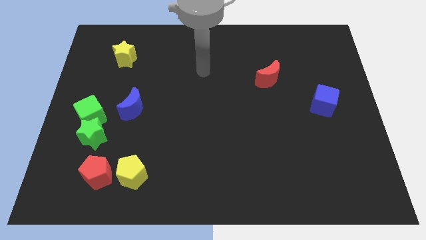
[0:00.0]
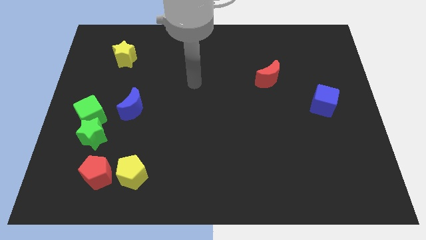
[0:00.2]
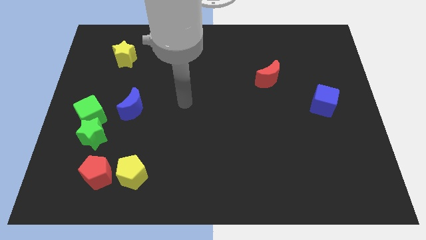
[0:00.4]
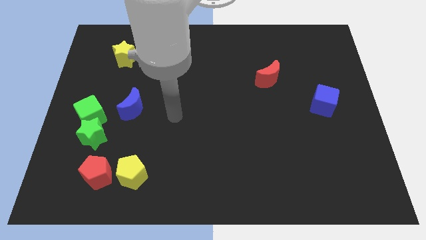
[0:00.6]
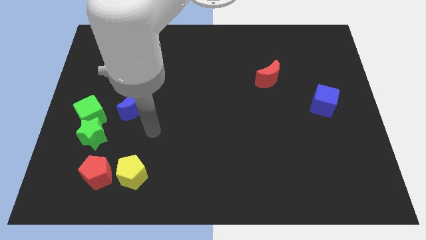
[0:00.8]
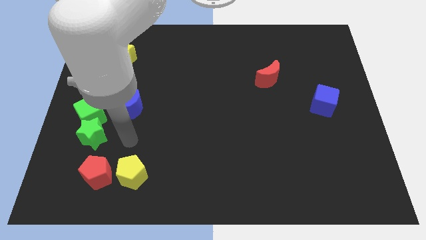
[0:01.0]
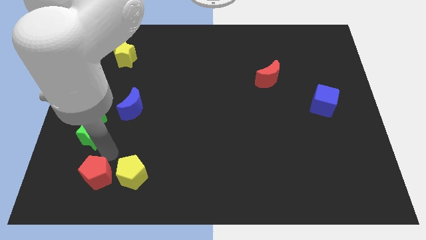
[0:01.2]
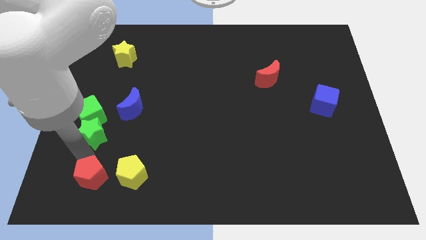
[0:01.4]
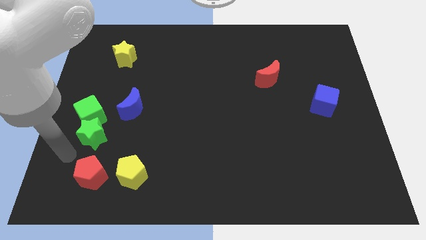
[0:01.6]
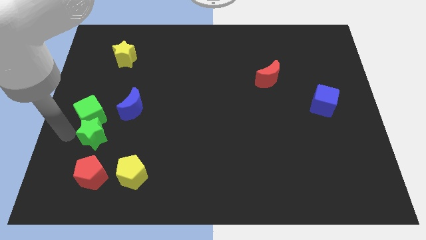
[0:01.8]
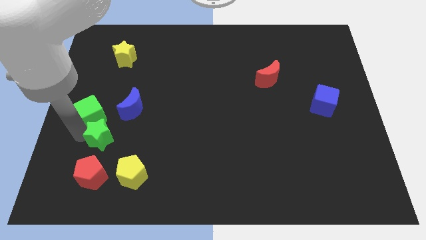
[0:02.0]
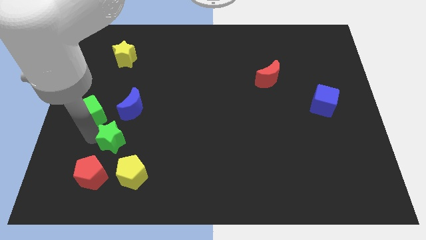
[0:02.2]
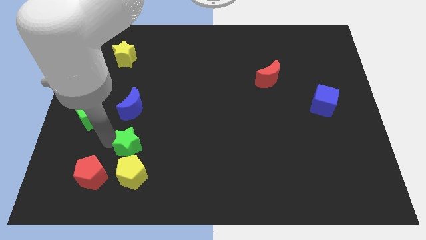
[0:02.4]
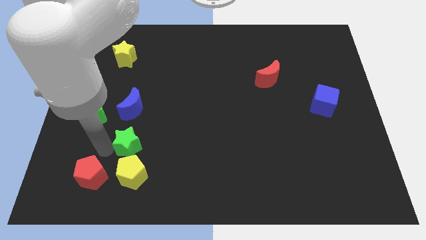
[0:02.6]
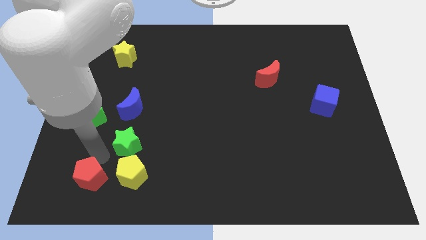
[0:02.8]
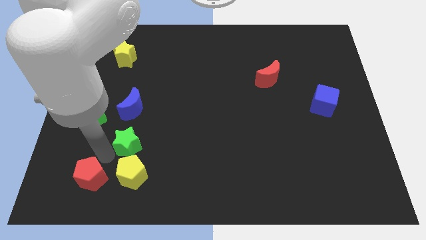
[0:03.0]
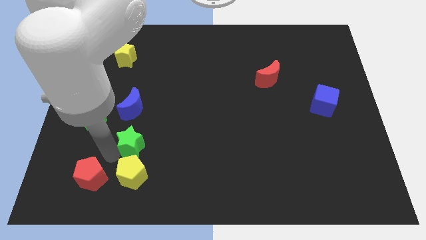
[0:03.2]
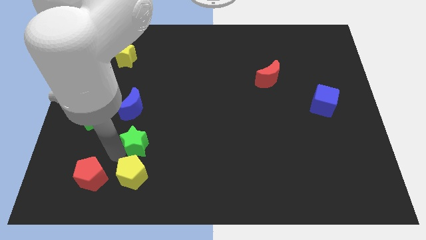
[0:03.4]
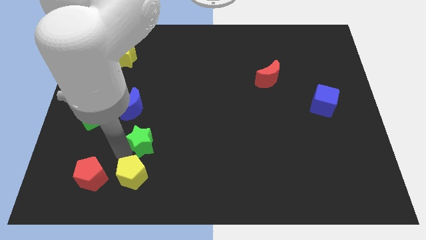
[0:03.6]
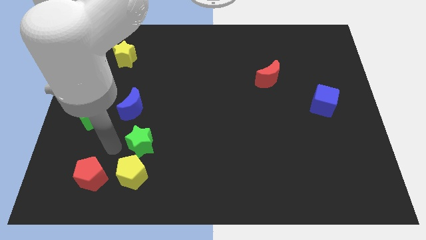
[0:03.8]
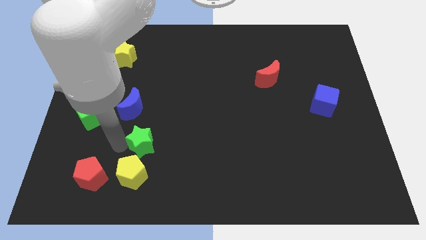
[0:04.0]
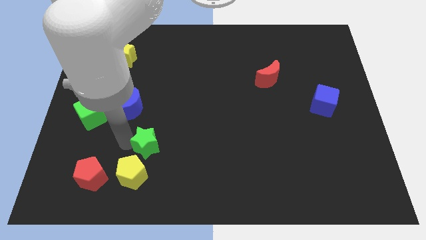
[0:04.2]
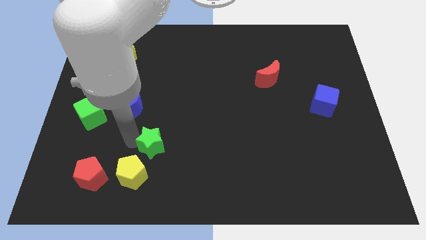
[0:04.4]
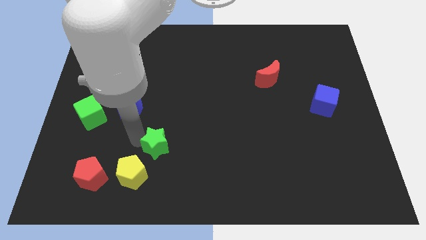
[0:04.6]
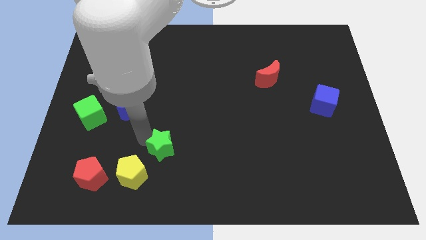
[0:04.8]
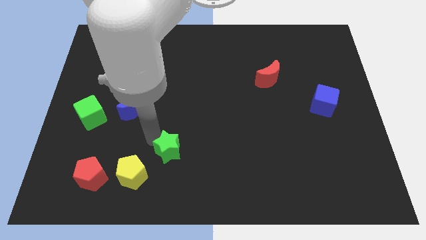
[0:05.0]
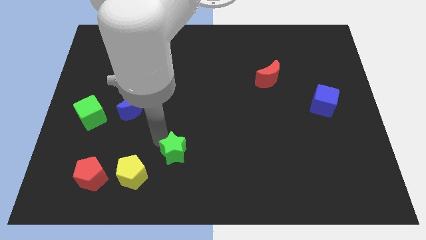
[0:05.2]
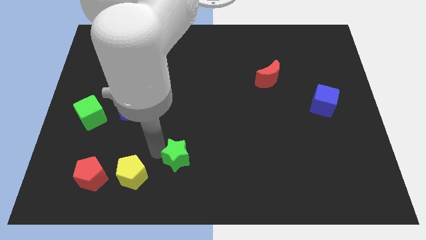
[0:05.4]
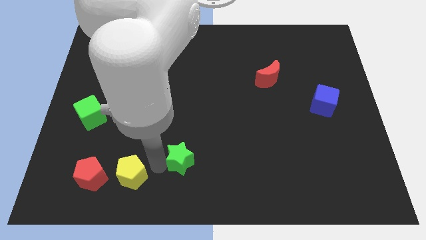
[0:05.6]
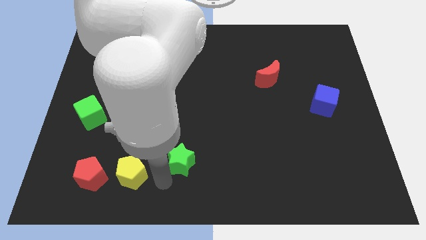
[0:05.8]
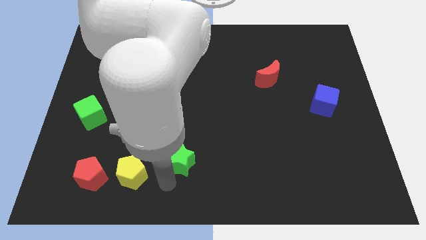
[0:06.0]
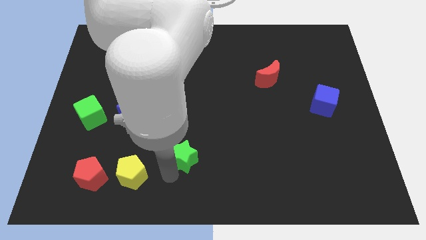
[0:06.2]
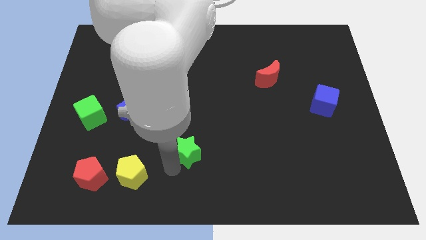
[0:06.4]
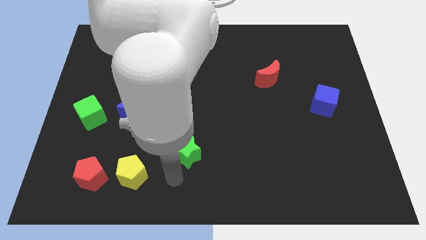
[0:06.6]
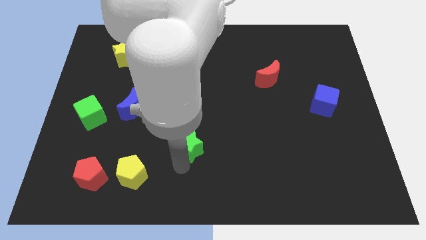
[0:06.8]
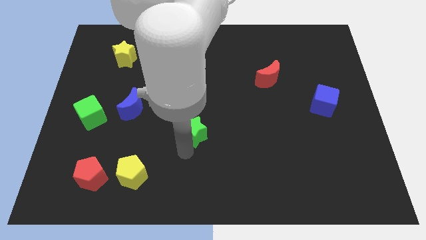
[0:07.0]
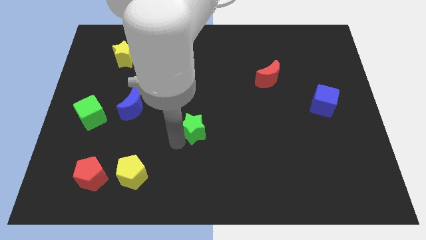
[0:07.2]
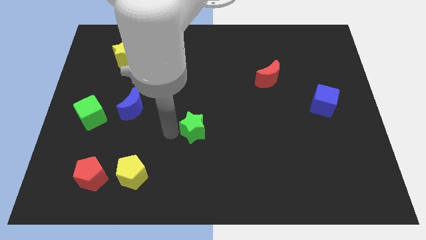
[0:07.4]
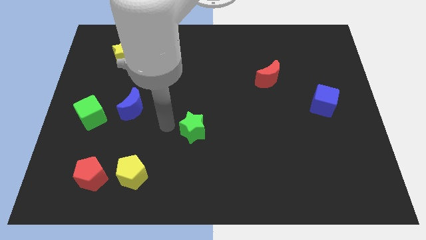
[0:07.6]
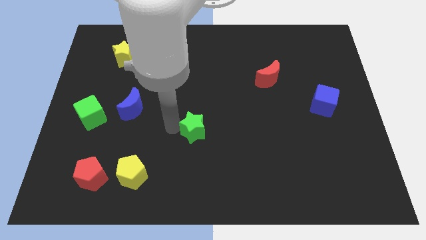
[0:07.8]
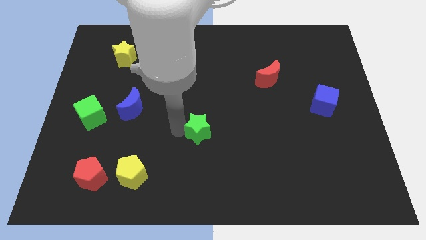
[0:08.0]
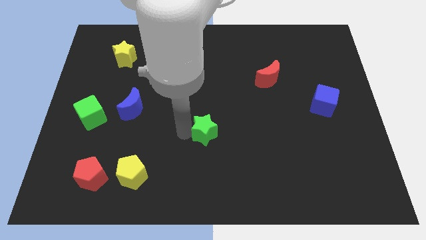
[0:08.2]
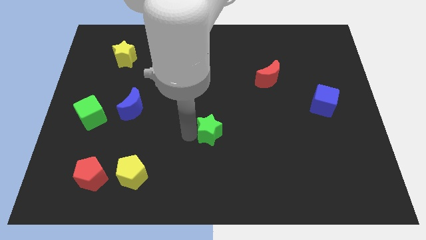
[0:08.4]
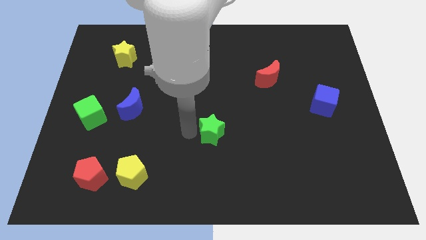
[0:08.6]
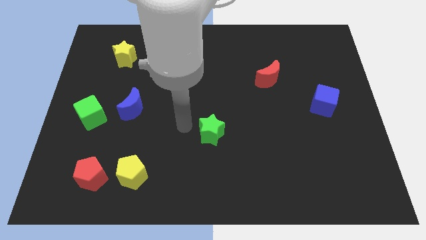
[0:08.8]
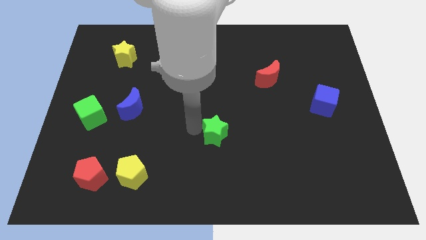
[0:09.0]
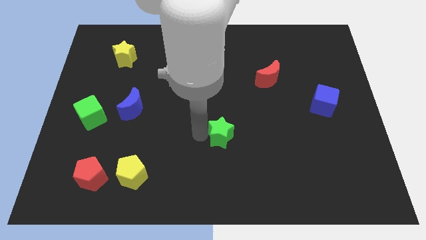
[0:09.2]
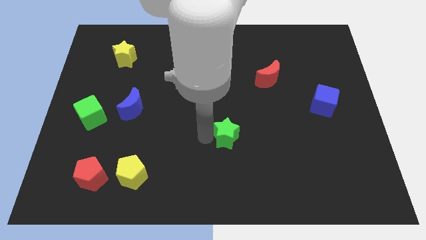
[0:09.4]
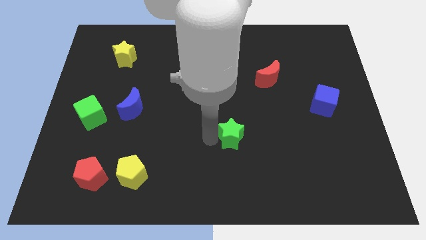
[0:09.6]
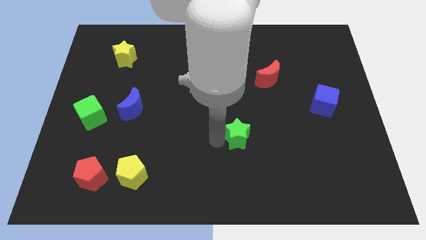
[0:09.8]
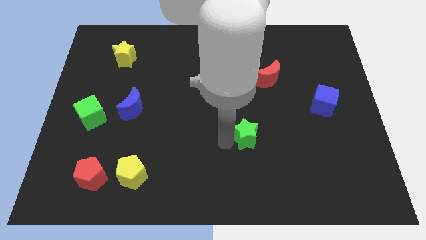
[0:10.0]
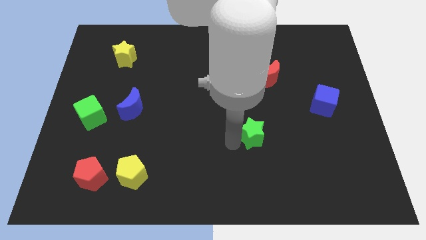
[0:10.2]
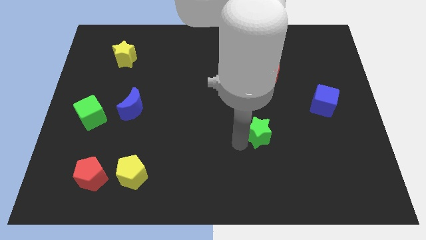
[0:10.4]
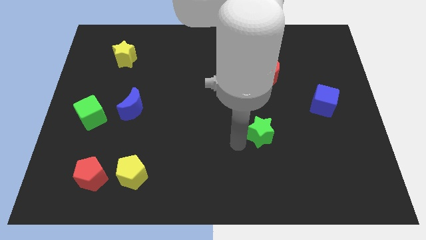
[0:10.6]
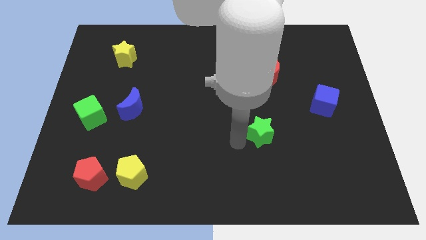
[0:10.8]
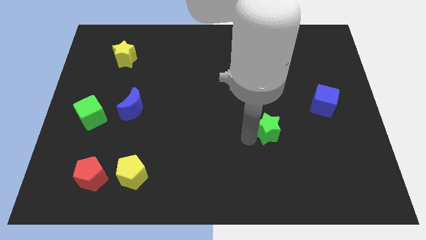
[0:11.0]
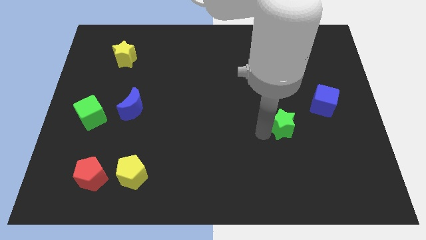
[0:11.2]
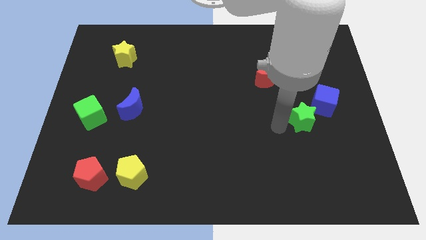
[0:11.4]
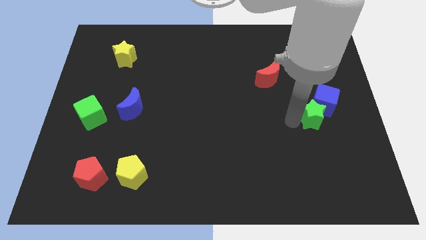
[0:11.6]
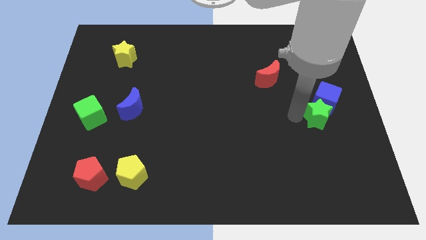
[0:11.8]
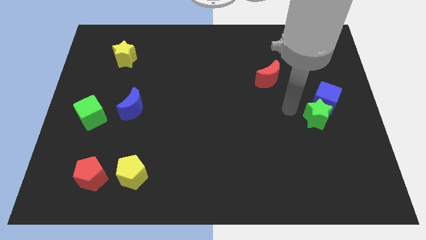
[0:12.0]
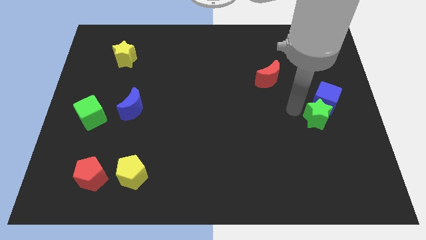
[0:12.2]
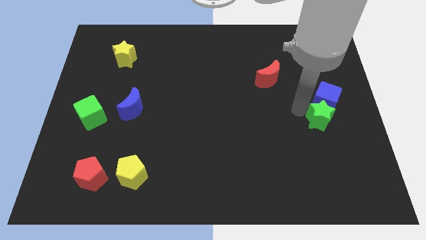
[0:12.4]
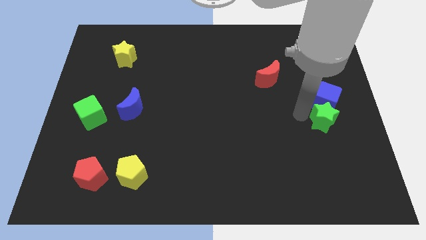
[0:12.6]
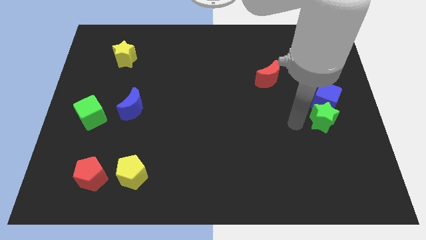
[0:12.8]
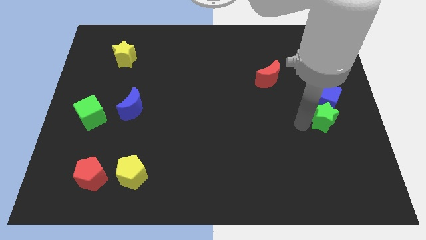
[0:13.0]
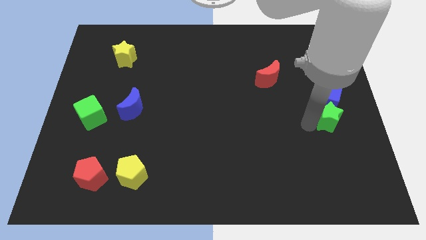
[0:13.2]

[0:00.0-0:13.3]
slide the green star to the right side of the board

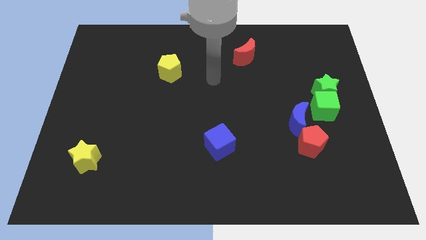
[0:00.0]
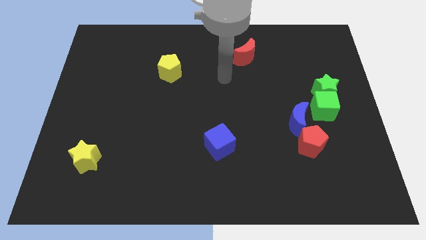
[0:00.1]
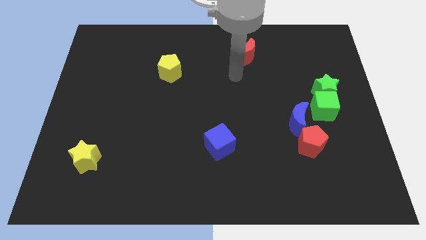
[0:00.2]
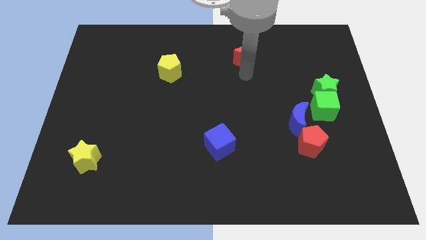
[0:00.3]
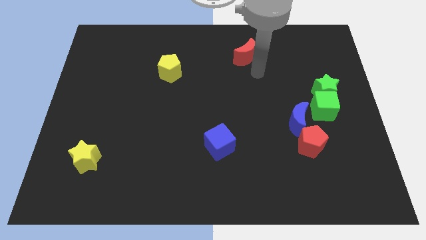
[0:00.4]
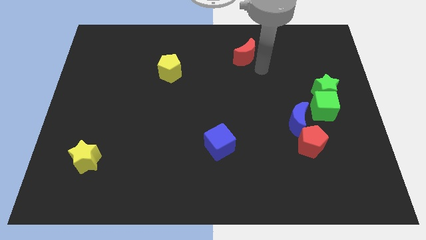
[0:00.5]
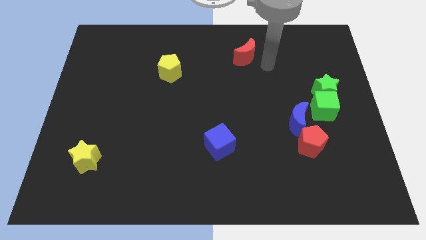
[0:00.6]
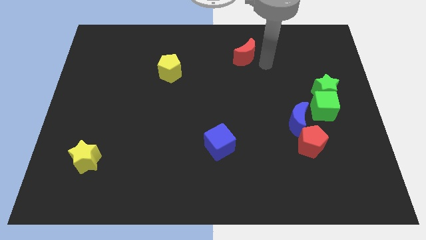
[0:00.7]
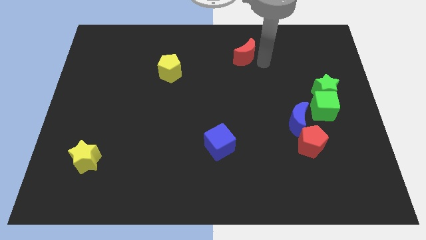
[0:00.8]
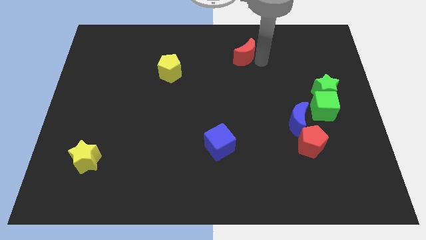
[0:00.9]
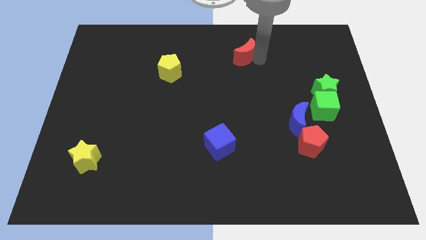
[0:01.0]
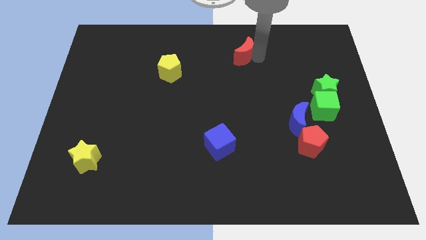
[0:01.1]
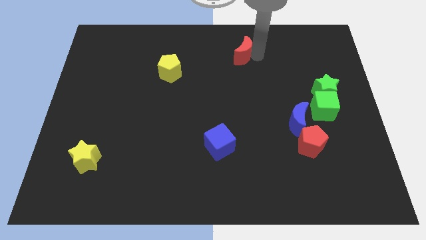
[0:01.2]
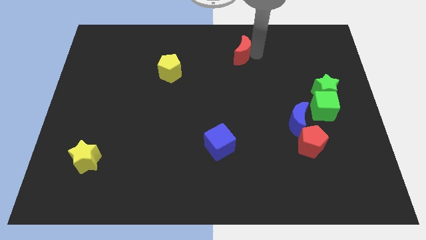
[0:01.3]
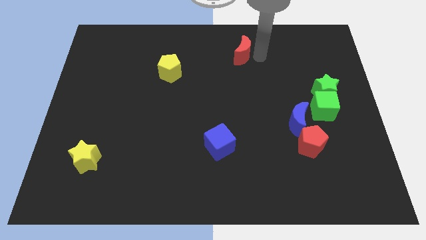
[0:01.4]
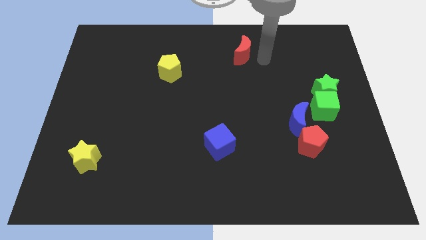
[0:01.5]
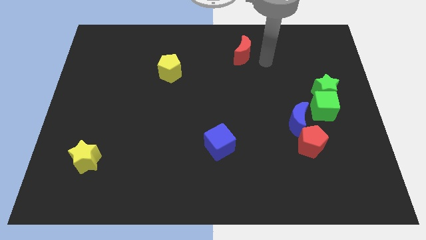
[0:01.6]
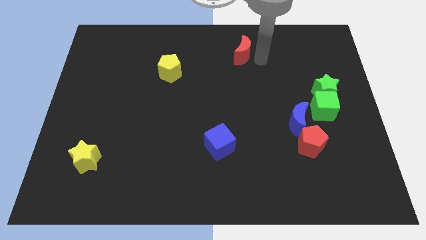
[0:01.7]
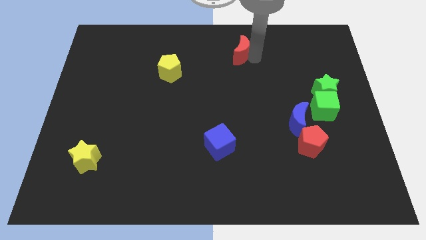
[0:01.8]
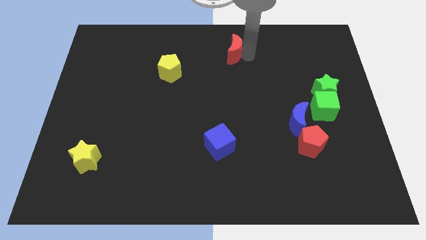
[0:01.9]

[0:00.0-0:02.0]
push the red moon to the towards your base
